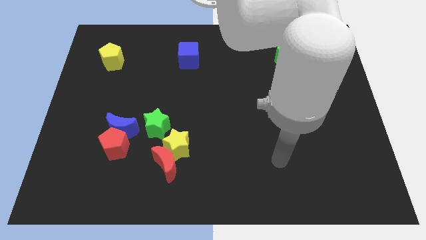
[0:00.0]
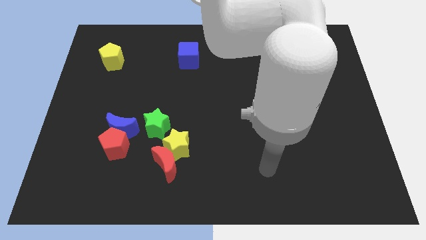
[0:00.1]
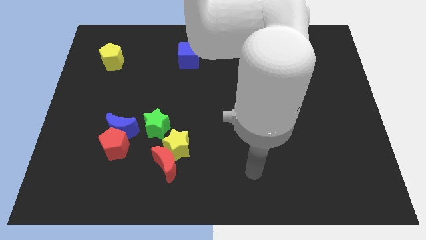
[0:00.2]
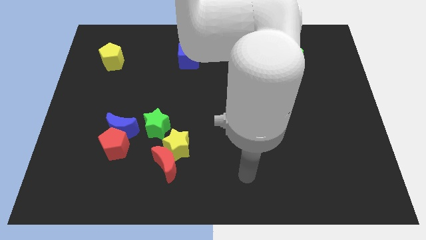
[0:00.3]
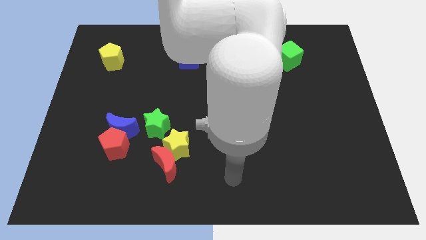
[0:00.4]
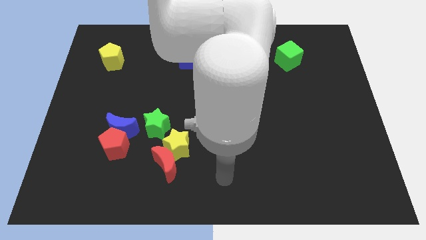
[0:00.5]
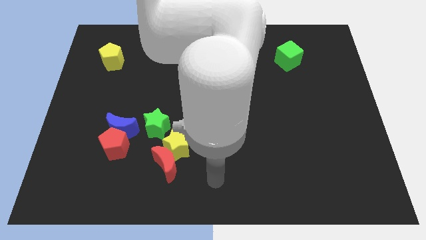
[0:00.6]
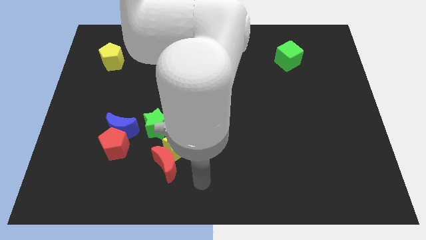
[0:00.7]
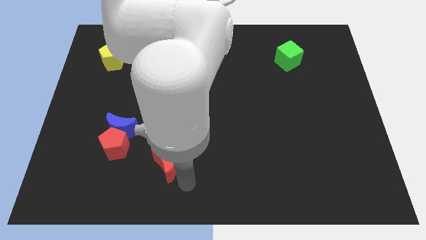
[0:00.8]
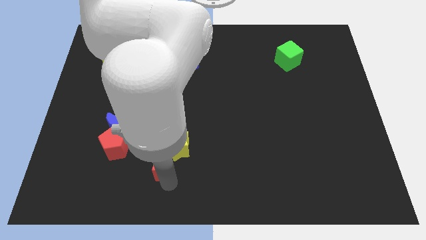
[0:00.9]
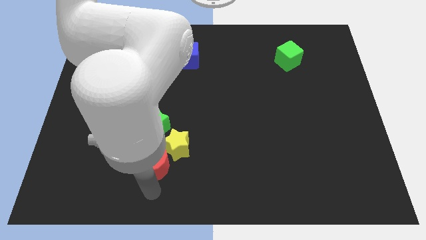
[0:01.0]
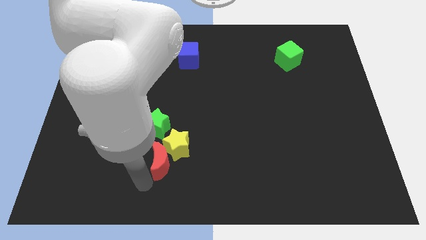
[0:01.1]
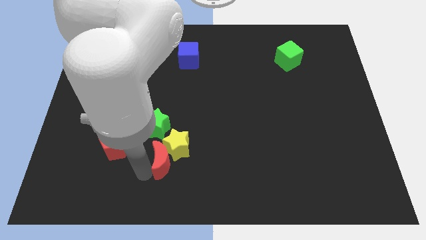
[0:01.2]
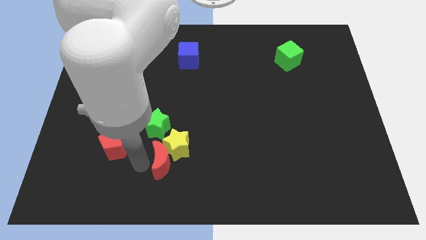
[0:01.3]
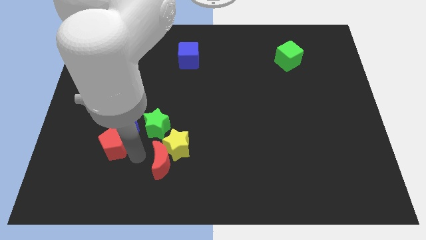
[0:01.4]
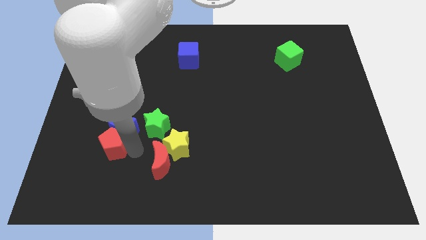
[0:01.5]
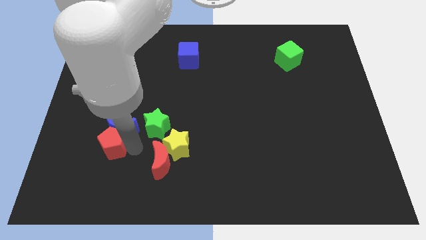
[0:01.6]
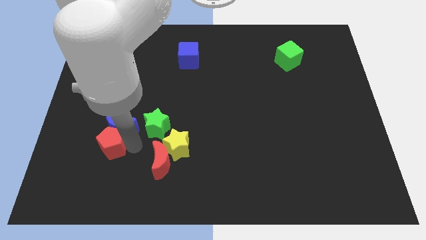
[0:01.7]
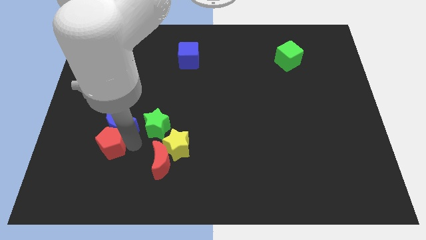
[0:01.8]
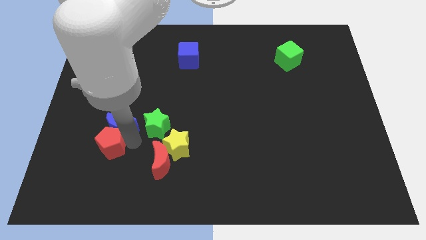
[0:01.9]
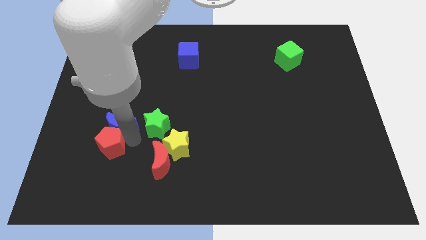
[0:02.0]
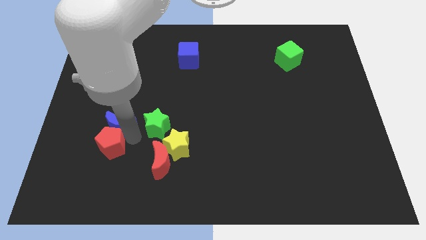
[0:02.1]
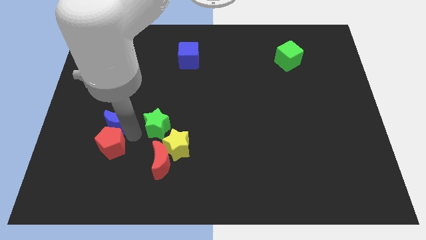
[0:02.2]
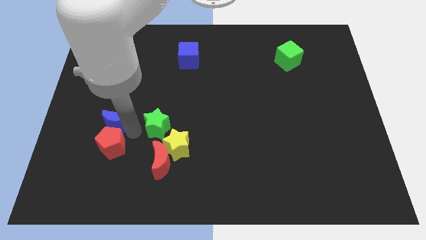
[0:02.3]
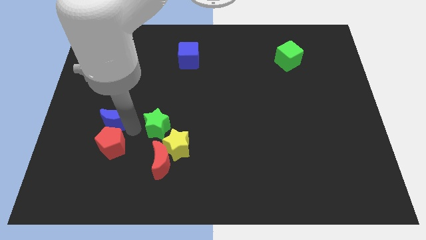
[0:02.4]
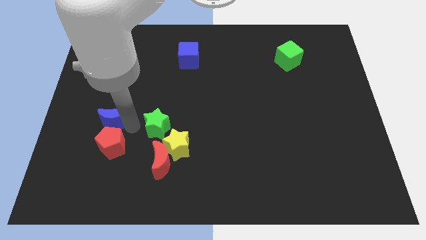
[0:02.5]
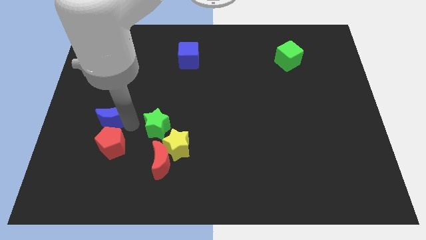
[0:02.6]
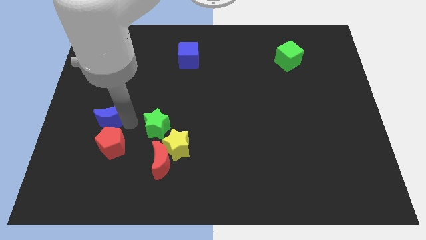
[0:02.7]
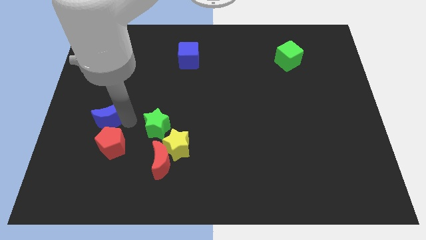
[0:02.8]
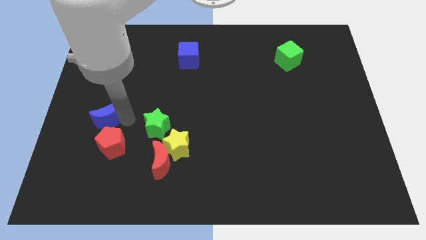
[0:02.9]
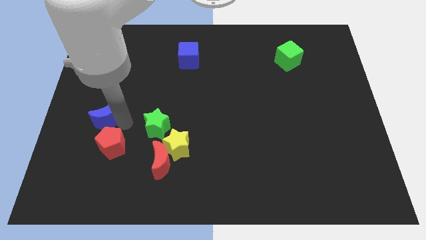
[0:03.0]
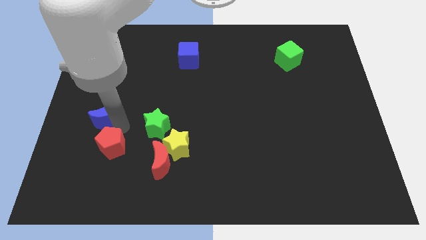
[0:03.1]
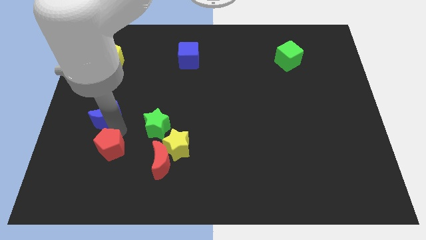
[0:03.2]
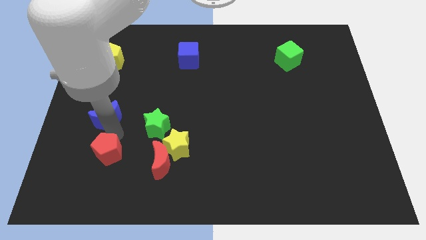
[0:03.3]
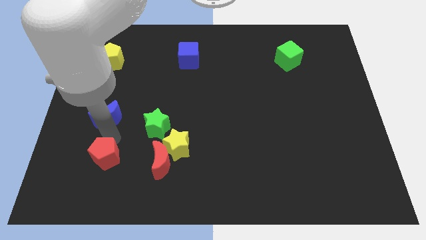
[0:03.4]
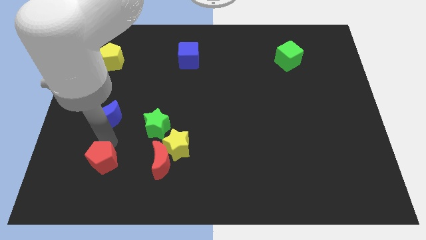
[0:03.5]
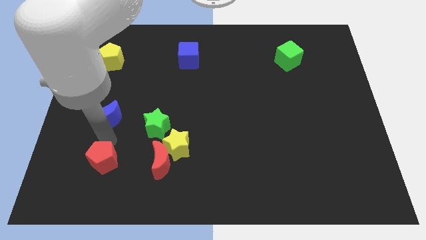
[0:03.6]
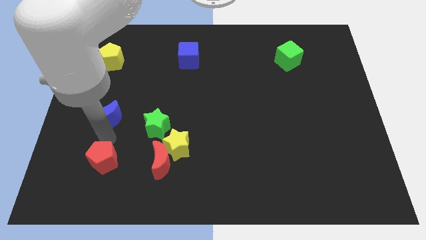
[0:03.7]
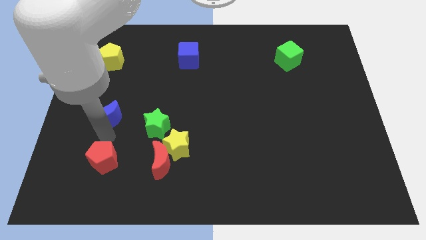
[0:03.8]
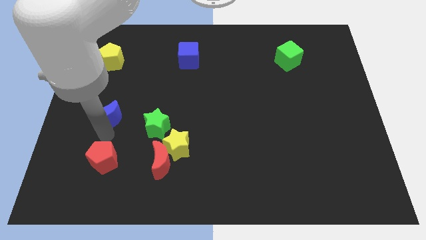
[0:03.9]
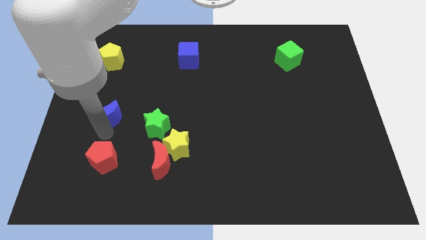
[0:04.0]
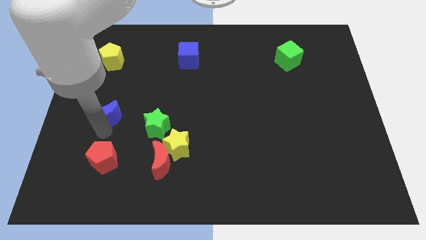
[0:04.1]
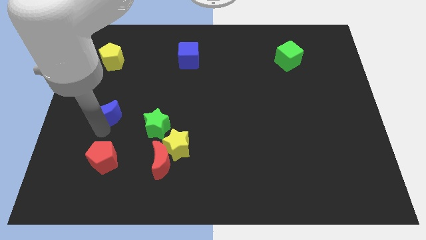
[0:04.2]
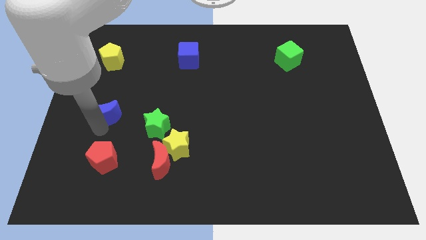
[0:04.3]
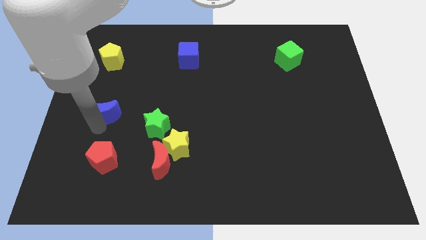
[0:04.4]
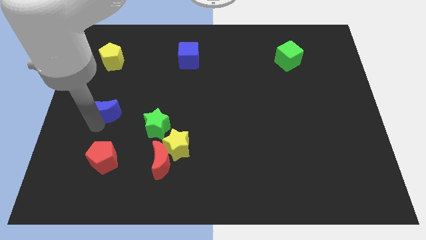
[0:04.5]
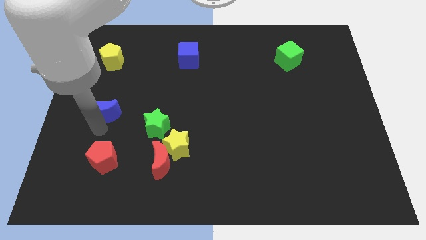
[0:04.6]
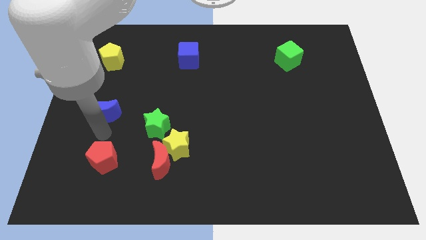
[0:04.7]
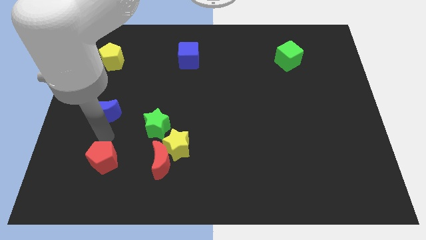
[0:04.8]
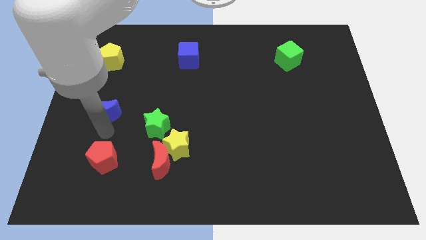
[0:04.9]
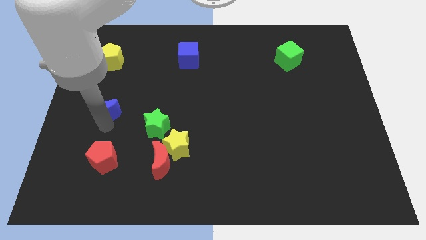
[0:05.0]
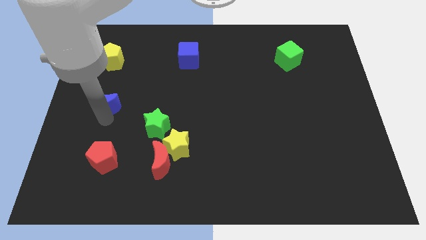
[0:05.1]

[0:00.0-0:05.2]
slide the blue moon below the yellow pentagon

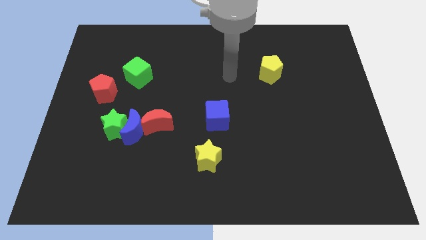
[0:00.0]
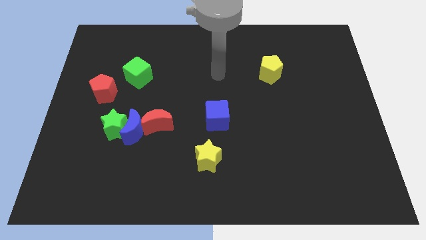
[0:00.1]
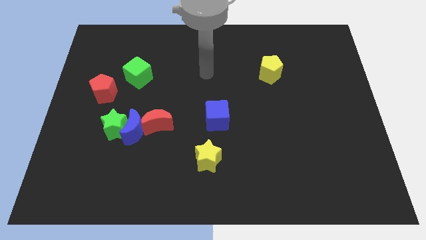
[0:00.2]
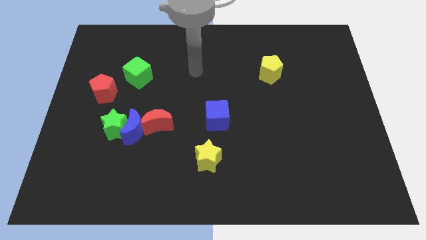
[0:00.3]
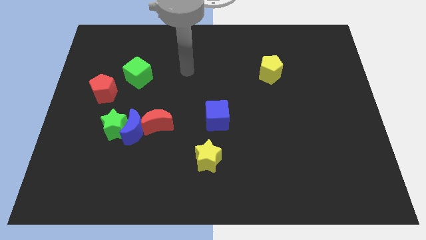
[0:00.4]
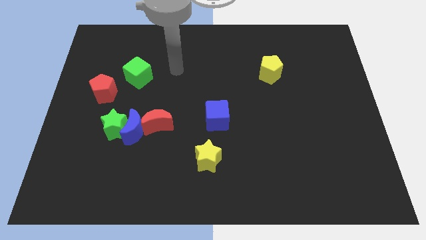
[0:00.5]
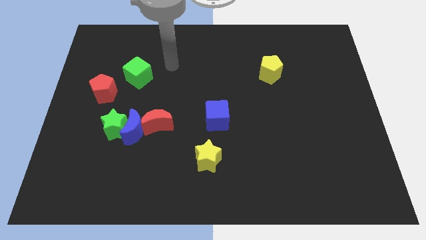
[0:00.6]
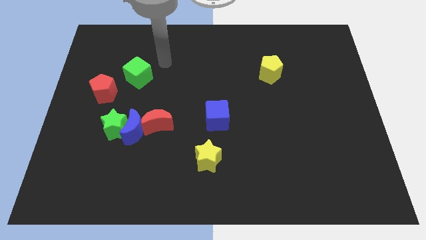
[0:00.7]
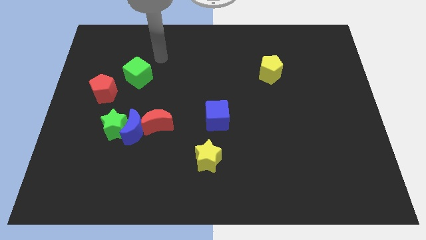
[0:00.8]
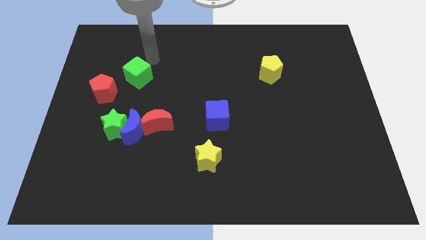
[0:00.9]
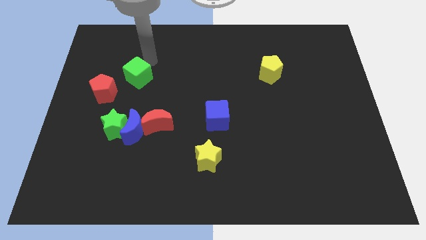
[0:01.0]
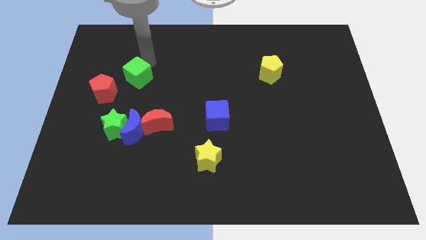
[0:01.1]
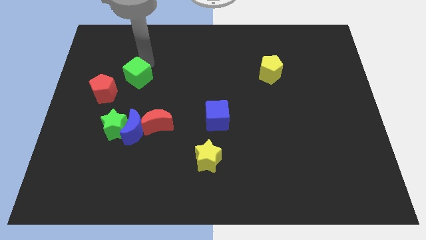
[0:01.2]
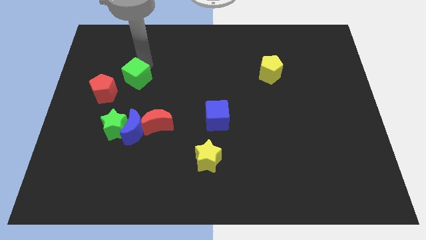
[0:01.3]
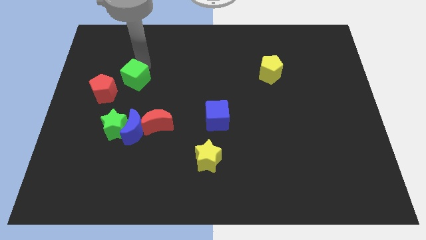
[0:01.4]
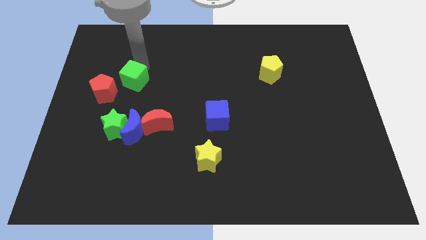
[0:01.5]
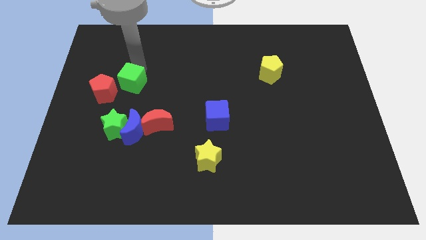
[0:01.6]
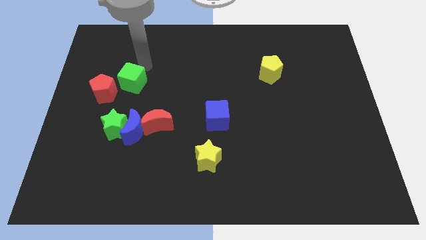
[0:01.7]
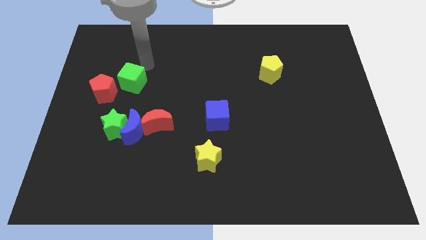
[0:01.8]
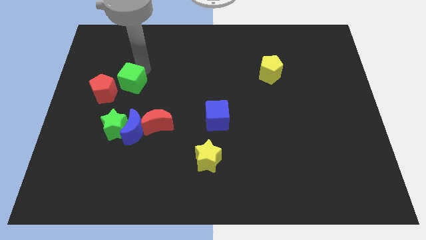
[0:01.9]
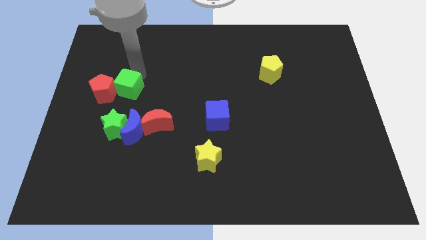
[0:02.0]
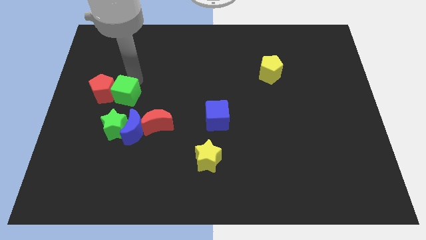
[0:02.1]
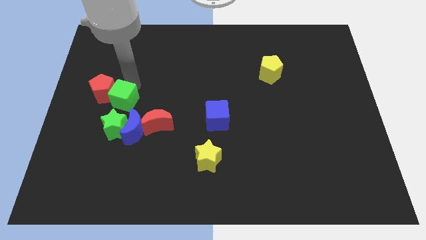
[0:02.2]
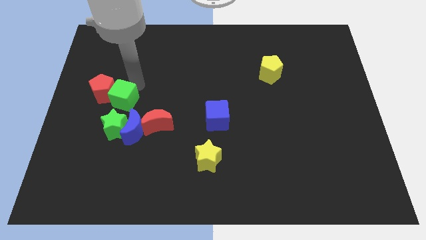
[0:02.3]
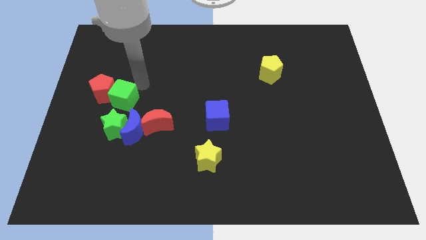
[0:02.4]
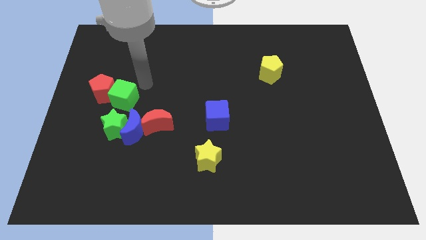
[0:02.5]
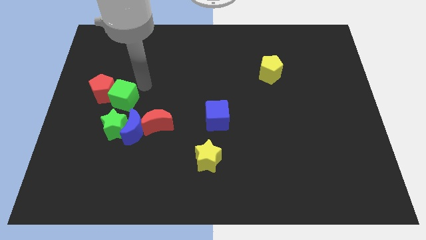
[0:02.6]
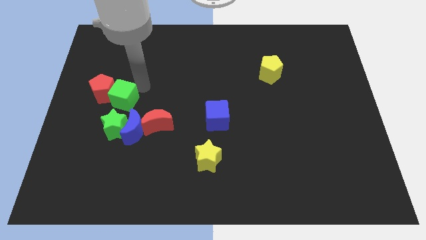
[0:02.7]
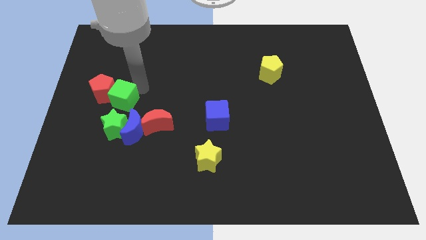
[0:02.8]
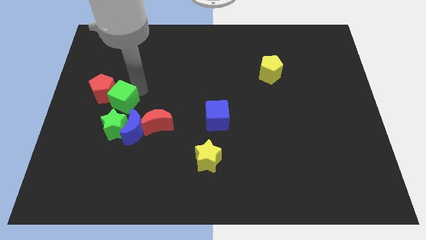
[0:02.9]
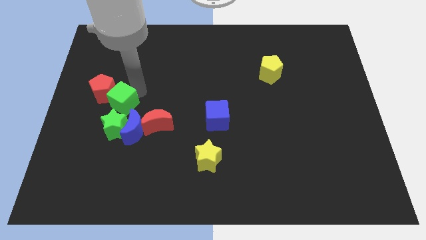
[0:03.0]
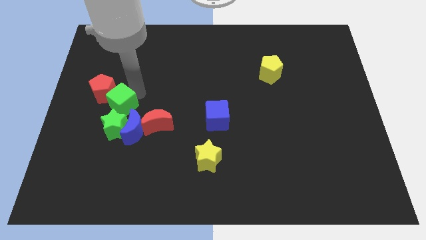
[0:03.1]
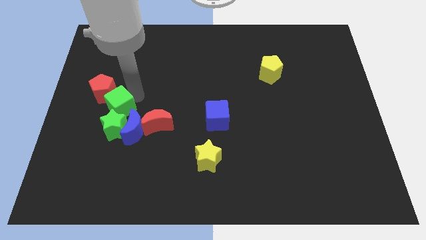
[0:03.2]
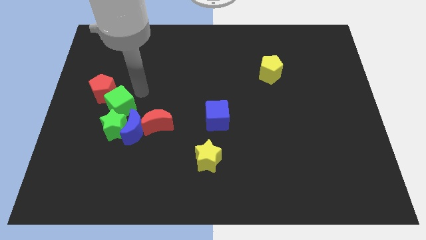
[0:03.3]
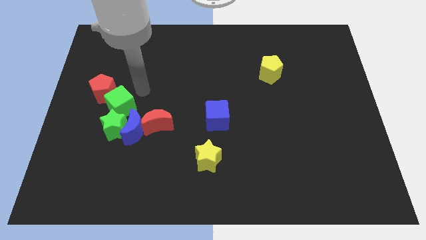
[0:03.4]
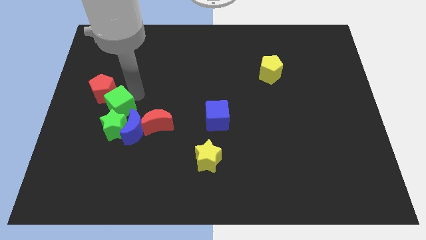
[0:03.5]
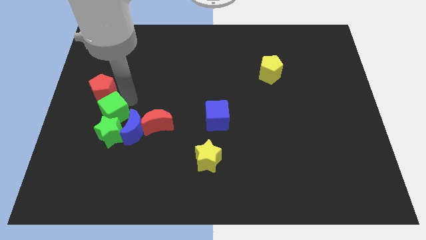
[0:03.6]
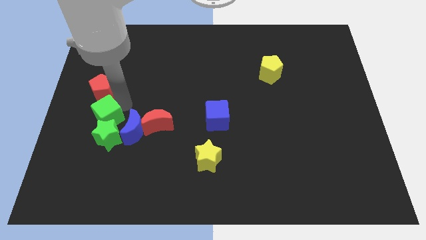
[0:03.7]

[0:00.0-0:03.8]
put the green cube to the left side of the blue moon
